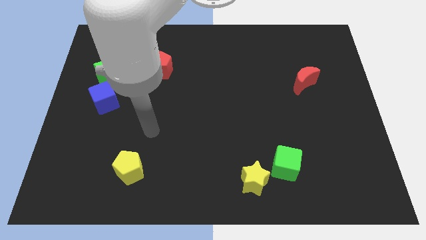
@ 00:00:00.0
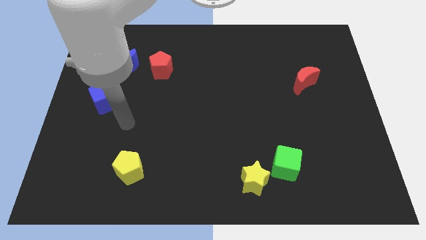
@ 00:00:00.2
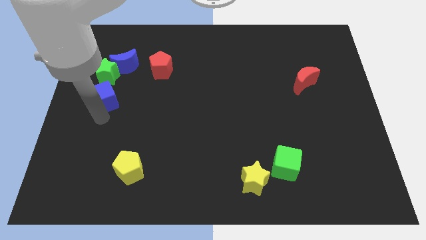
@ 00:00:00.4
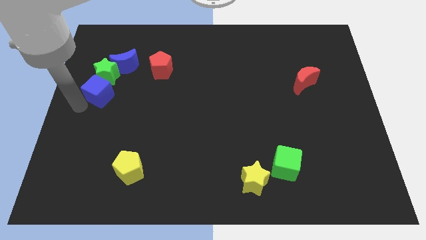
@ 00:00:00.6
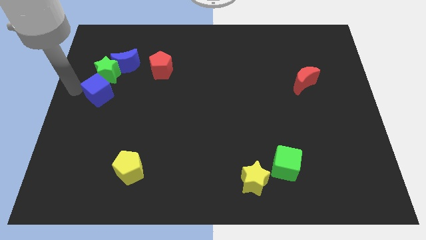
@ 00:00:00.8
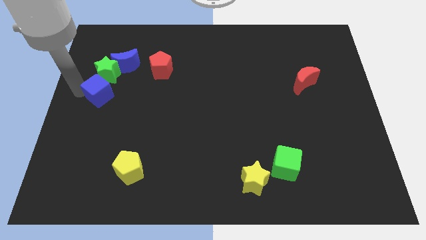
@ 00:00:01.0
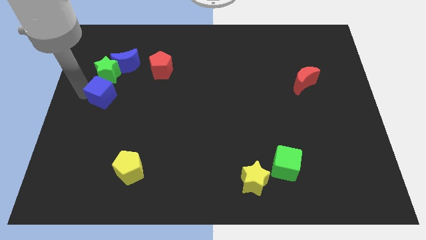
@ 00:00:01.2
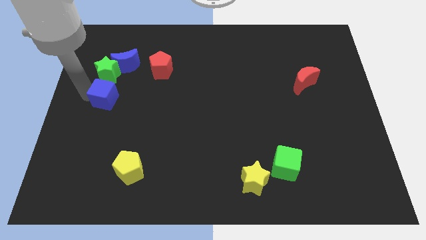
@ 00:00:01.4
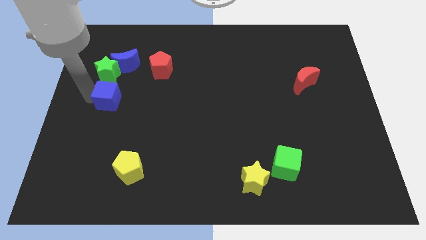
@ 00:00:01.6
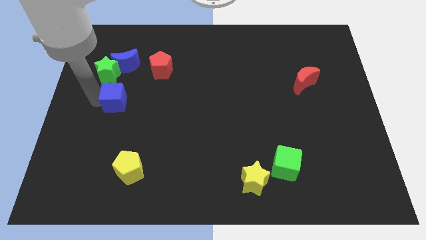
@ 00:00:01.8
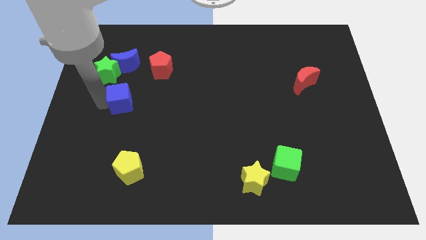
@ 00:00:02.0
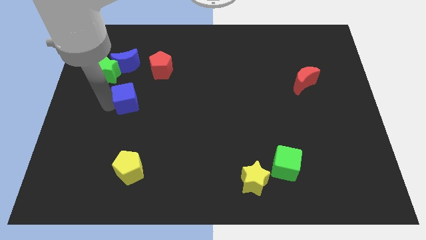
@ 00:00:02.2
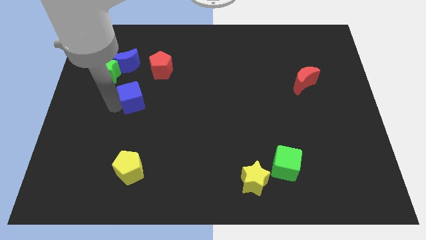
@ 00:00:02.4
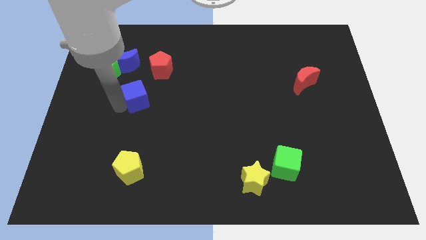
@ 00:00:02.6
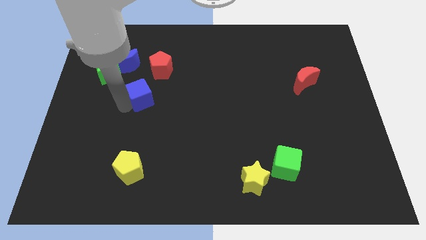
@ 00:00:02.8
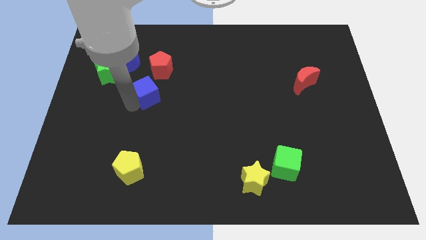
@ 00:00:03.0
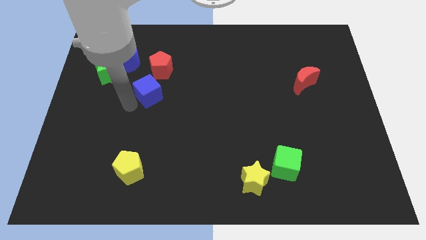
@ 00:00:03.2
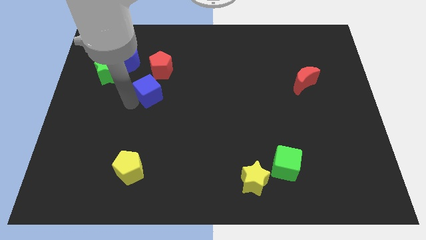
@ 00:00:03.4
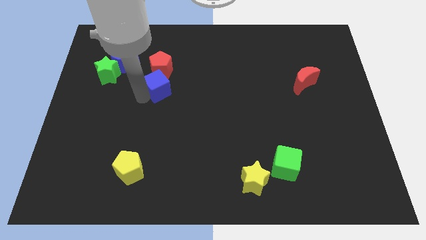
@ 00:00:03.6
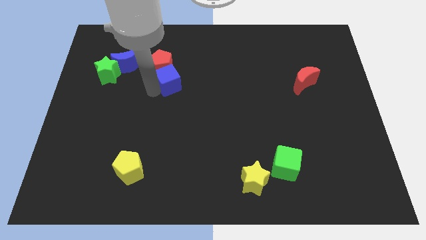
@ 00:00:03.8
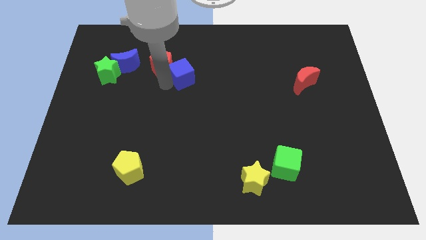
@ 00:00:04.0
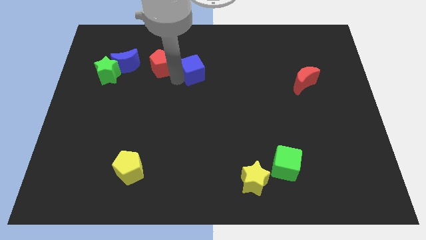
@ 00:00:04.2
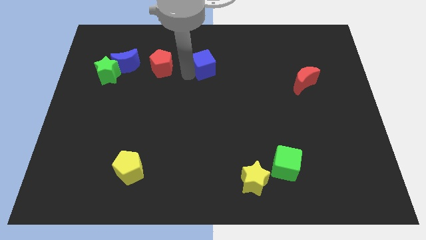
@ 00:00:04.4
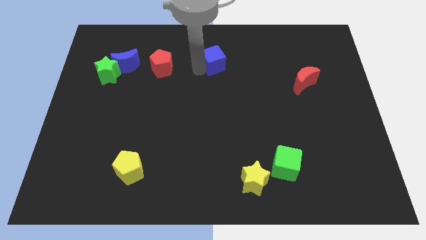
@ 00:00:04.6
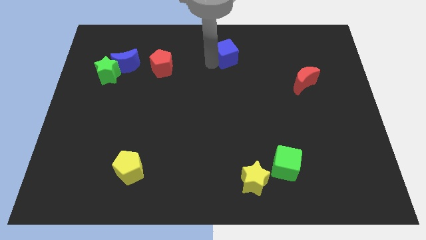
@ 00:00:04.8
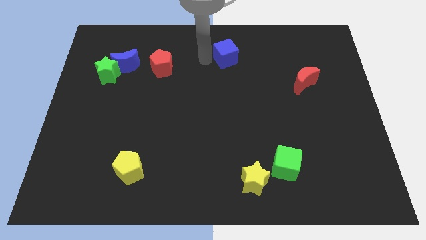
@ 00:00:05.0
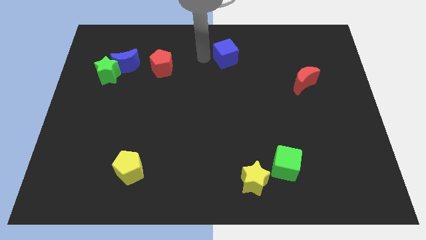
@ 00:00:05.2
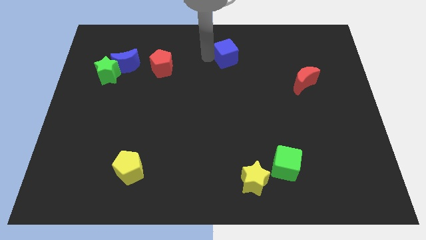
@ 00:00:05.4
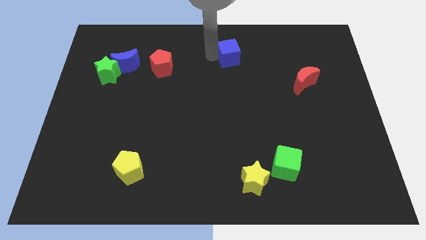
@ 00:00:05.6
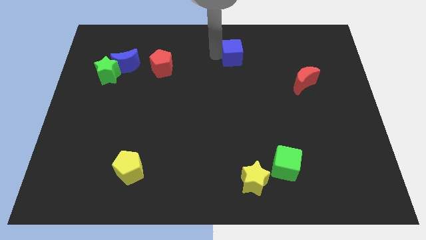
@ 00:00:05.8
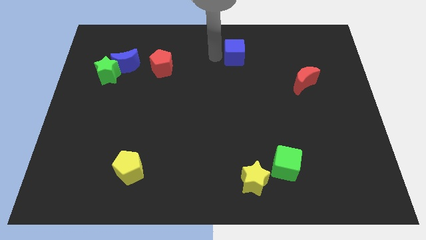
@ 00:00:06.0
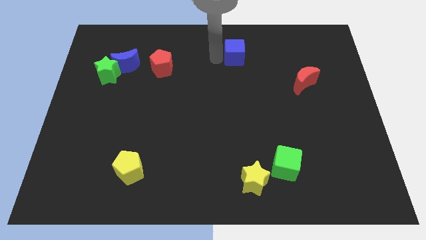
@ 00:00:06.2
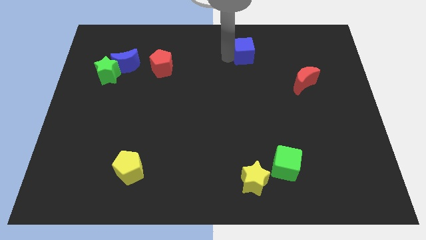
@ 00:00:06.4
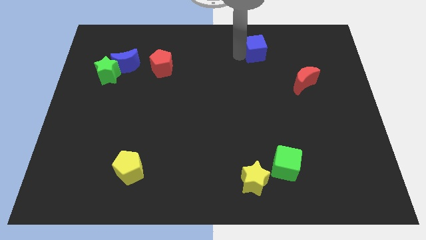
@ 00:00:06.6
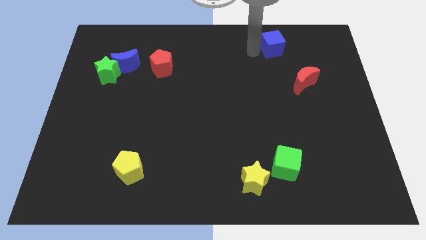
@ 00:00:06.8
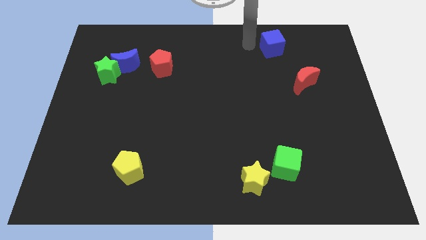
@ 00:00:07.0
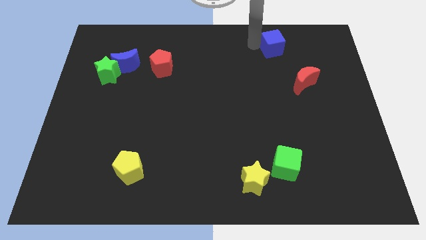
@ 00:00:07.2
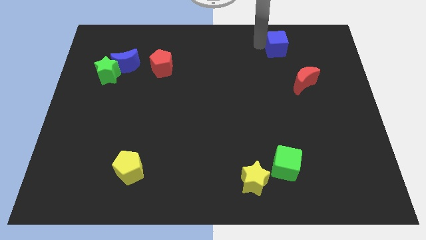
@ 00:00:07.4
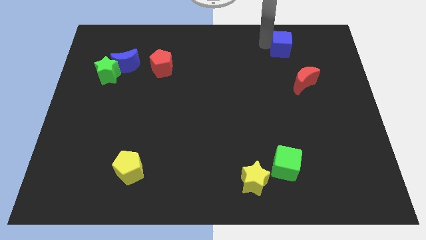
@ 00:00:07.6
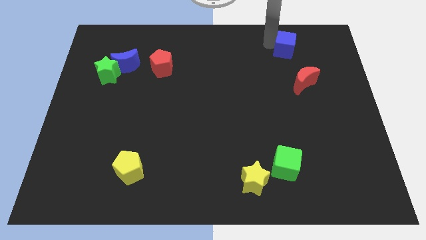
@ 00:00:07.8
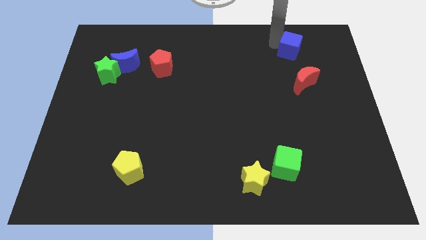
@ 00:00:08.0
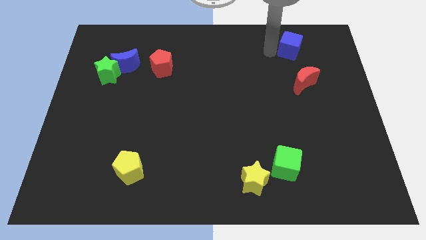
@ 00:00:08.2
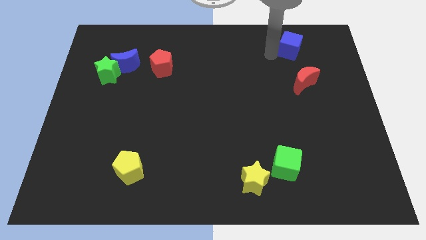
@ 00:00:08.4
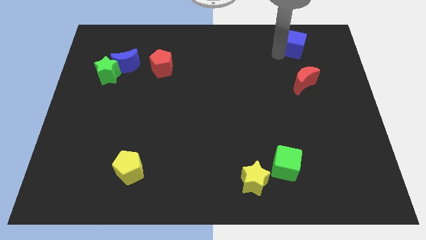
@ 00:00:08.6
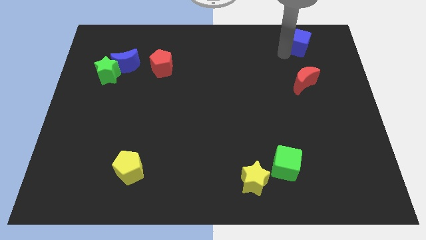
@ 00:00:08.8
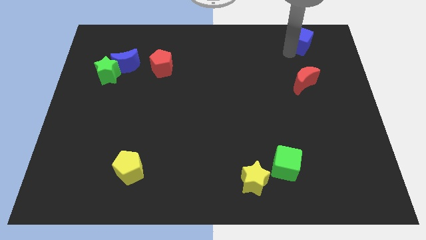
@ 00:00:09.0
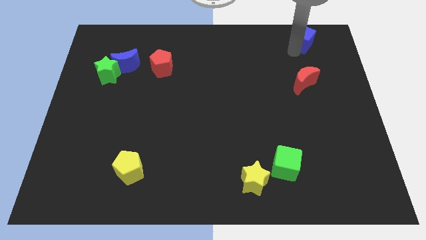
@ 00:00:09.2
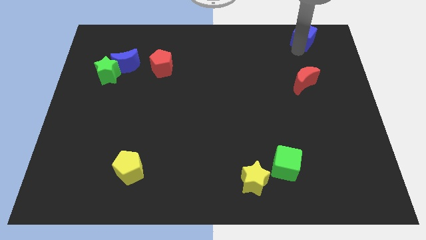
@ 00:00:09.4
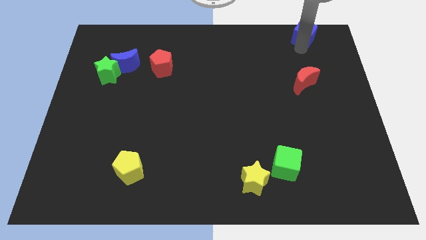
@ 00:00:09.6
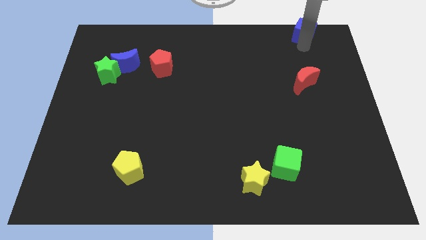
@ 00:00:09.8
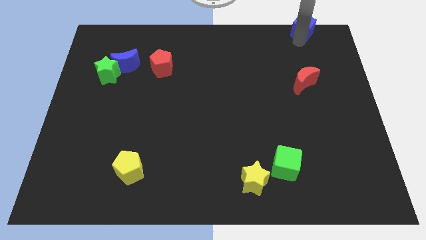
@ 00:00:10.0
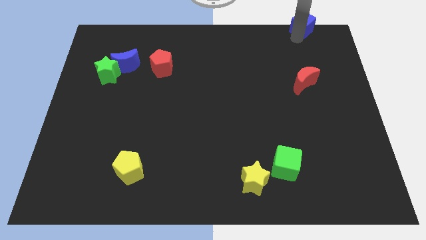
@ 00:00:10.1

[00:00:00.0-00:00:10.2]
push the blue cube to the top right corner
